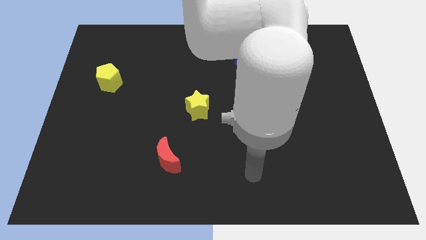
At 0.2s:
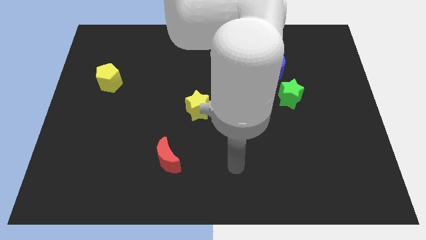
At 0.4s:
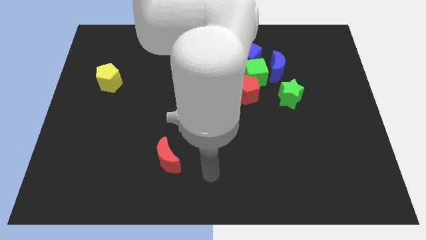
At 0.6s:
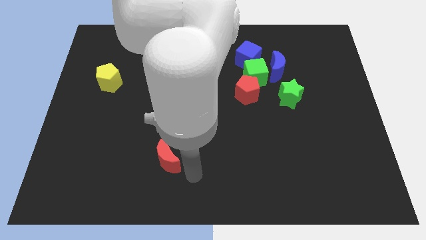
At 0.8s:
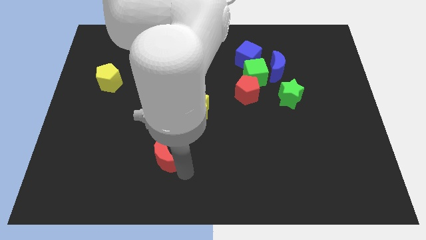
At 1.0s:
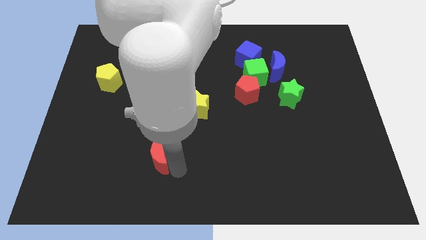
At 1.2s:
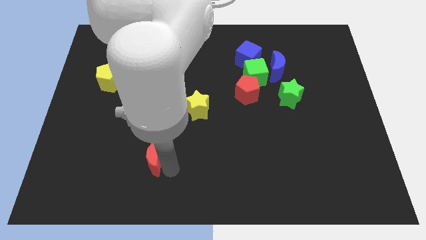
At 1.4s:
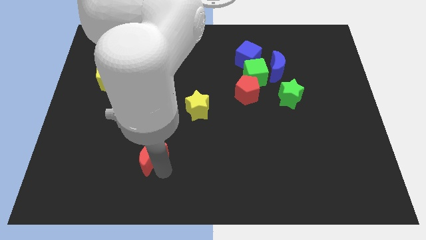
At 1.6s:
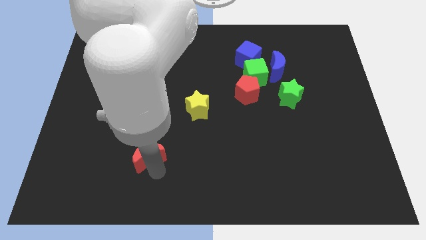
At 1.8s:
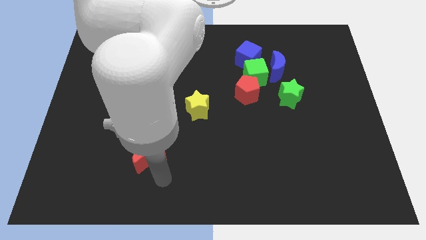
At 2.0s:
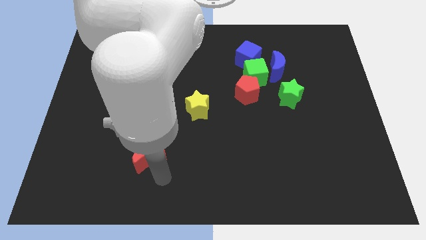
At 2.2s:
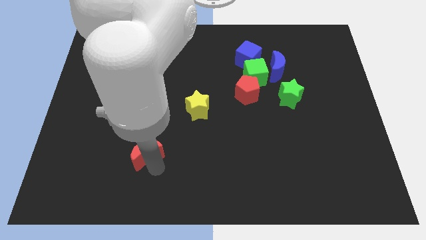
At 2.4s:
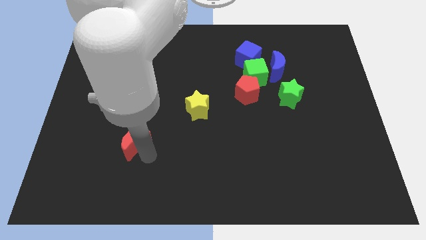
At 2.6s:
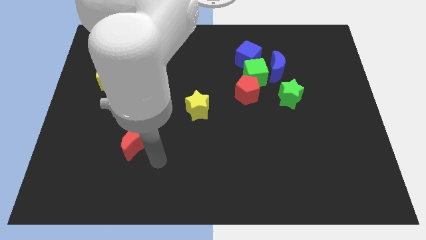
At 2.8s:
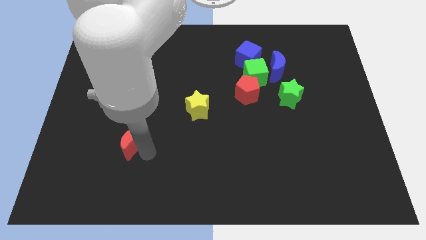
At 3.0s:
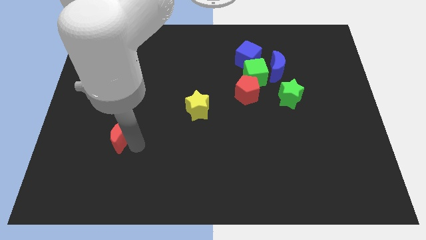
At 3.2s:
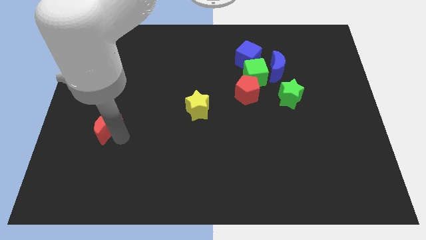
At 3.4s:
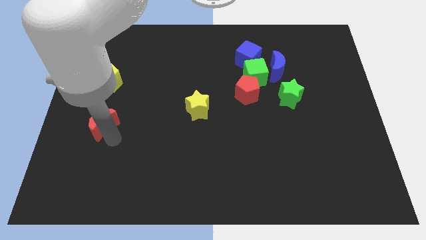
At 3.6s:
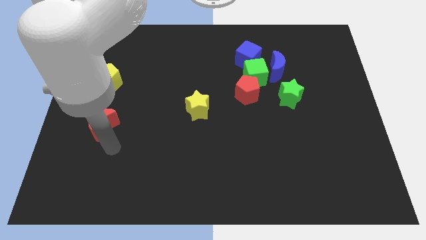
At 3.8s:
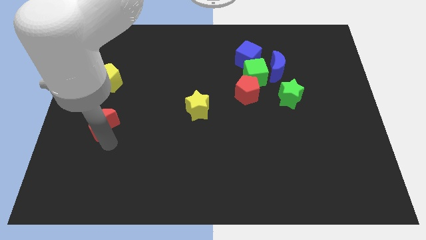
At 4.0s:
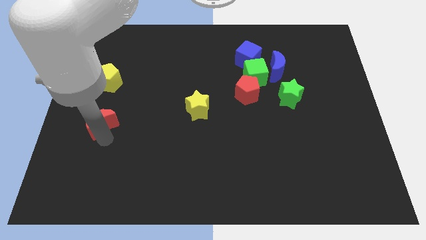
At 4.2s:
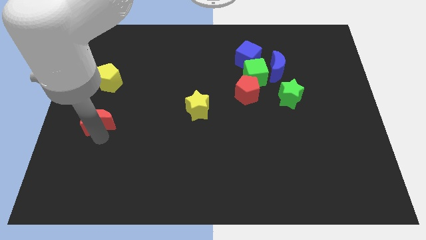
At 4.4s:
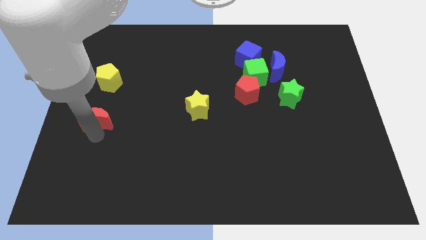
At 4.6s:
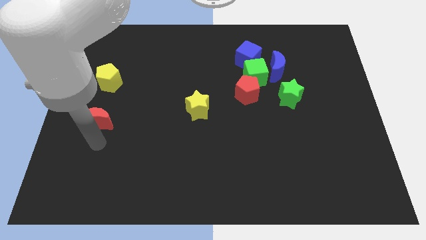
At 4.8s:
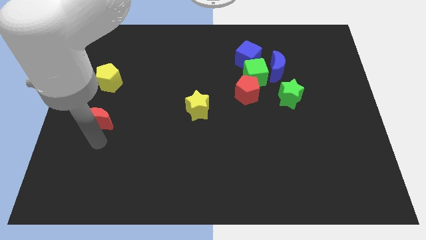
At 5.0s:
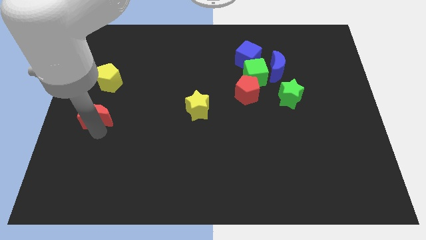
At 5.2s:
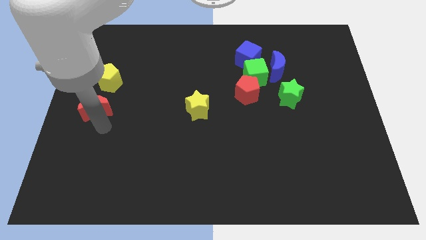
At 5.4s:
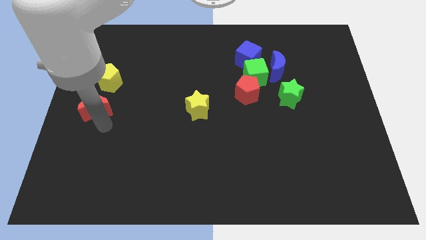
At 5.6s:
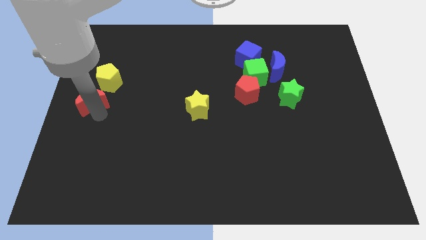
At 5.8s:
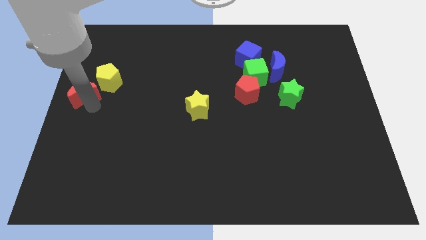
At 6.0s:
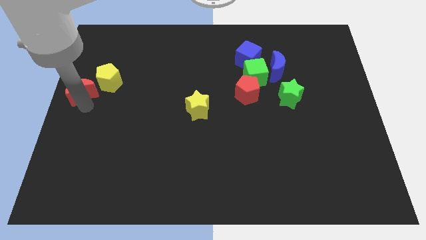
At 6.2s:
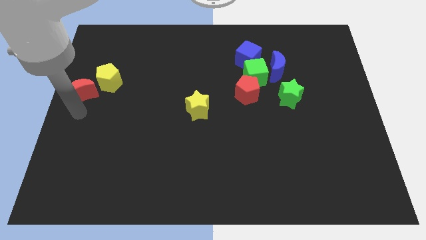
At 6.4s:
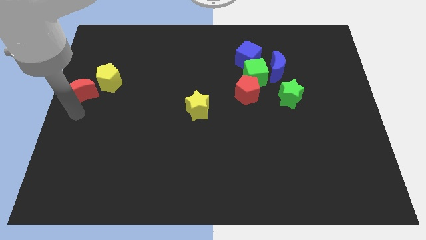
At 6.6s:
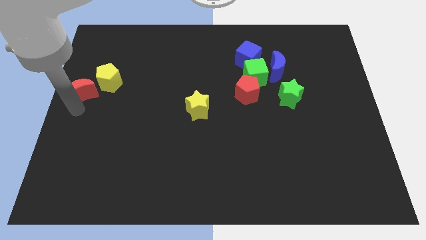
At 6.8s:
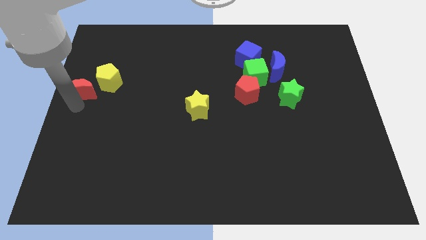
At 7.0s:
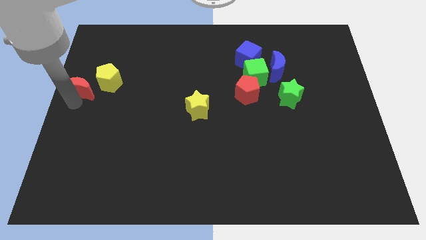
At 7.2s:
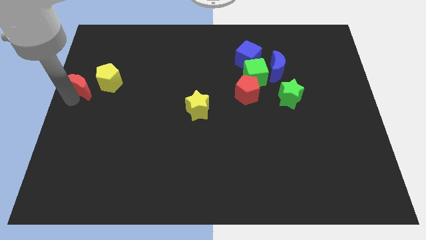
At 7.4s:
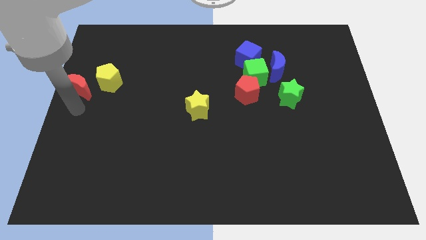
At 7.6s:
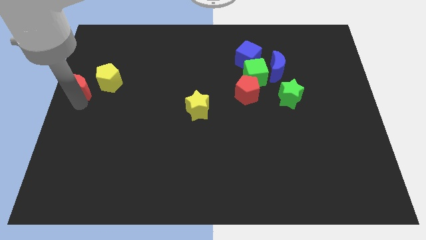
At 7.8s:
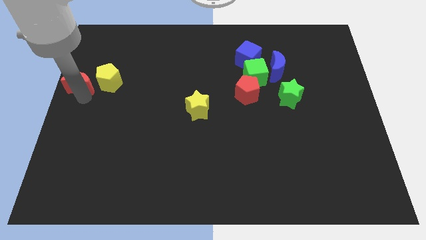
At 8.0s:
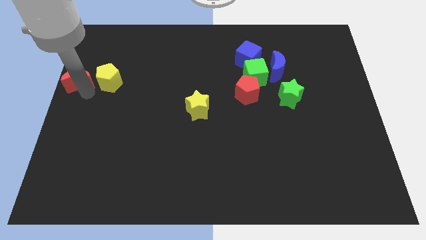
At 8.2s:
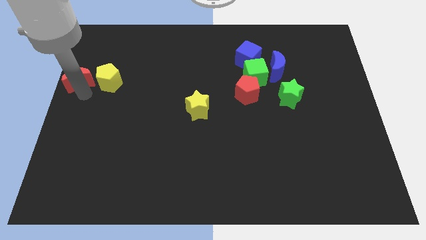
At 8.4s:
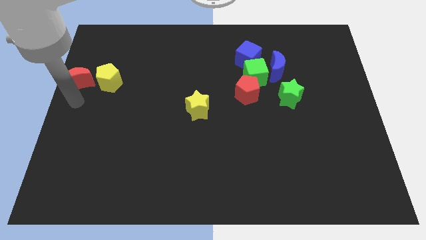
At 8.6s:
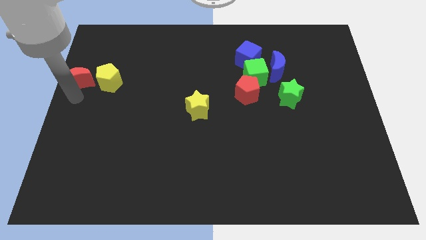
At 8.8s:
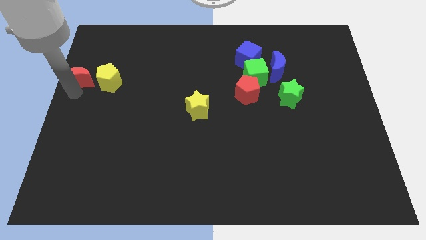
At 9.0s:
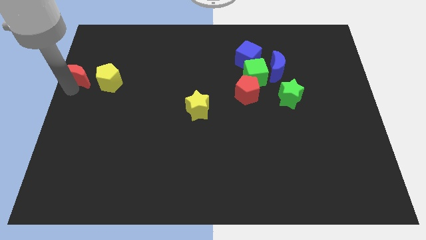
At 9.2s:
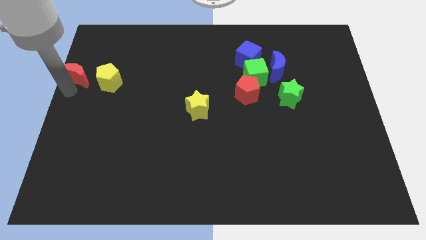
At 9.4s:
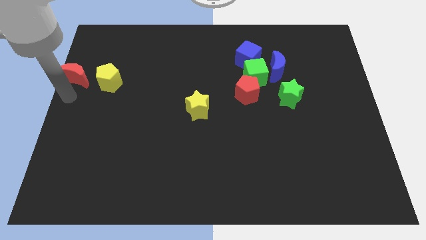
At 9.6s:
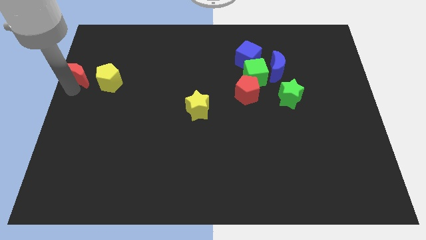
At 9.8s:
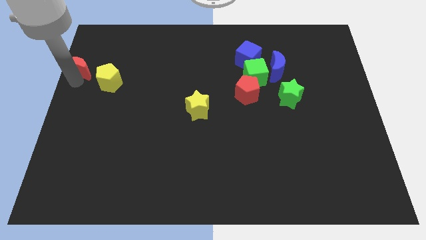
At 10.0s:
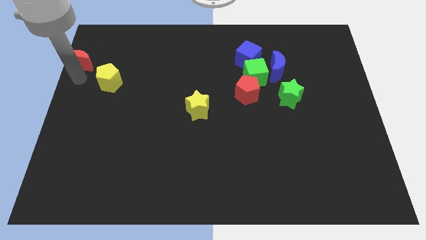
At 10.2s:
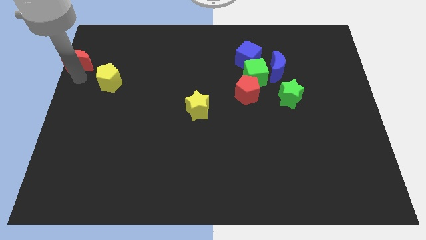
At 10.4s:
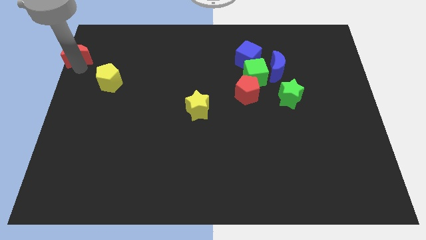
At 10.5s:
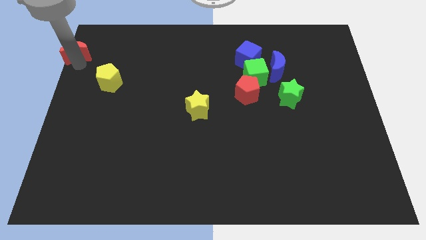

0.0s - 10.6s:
move the red moon to the top left corner
